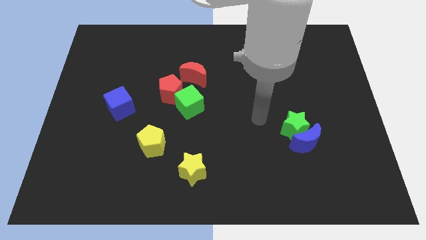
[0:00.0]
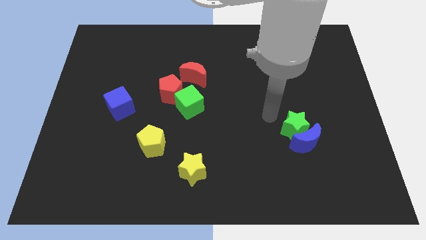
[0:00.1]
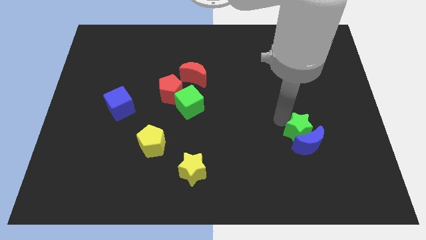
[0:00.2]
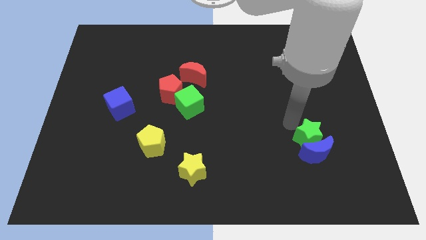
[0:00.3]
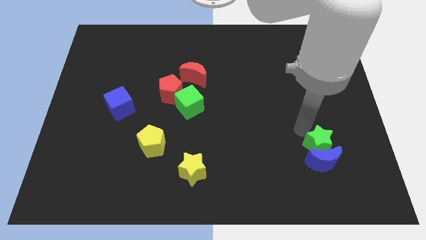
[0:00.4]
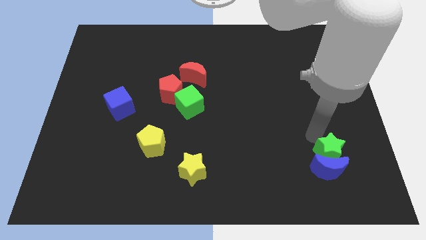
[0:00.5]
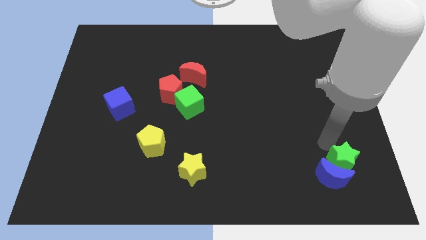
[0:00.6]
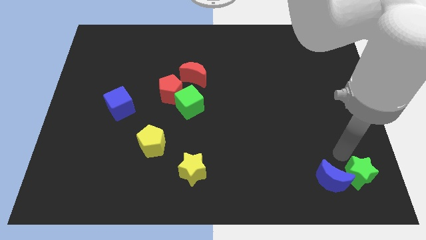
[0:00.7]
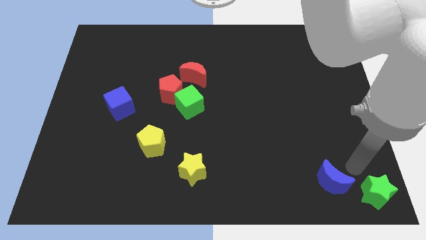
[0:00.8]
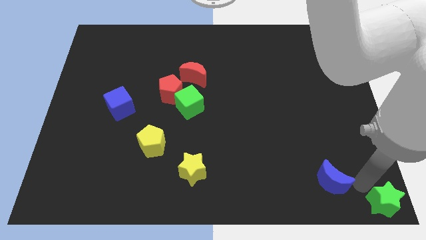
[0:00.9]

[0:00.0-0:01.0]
separate the blue moon from the green star

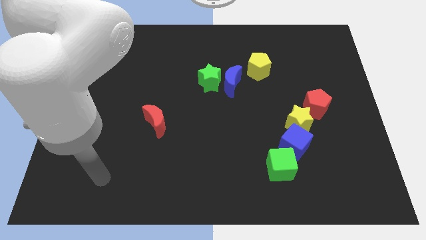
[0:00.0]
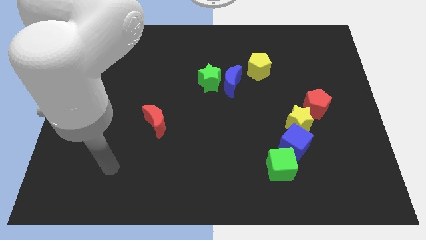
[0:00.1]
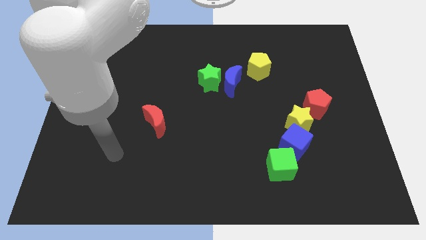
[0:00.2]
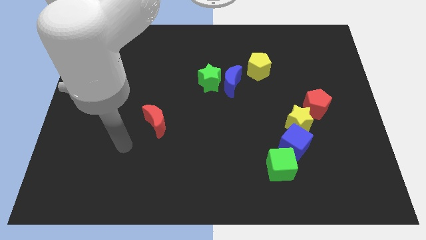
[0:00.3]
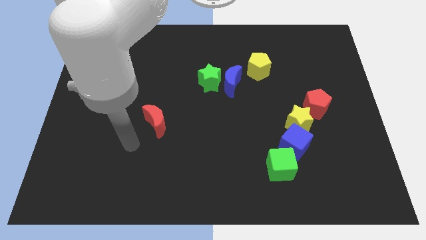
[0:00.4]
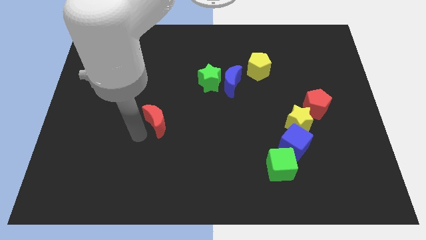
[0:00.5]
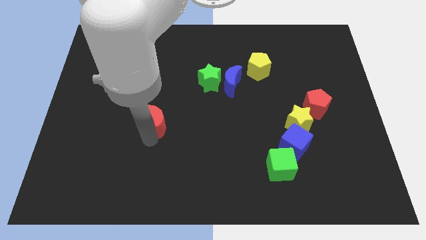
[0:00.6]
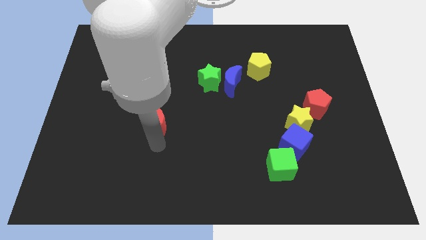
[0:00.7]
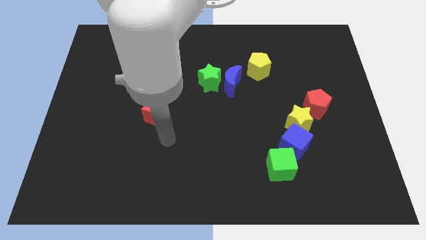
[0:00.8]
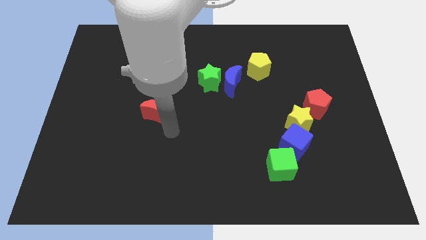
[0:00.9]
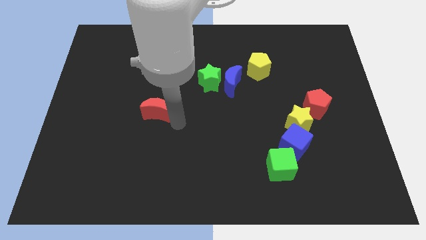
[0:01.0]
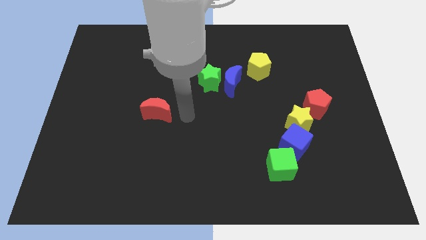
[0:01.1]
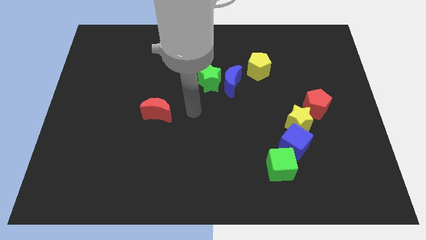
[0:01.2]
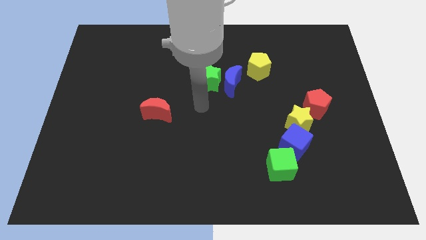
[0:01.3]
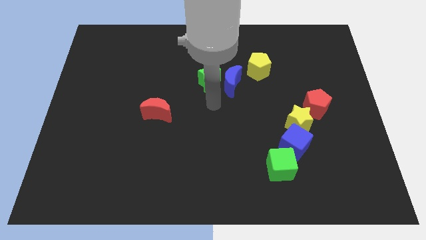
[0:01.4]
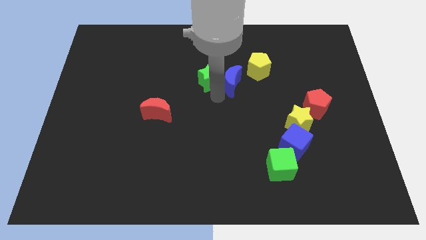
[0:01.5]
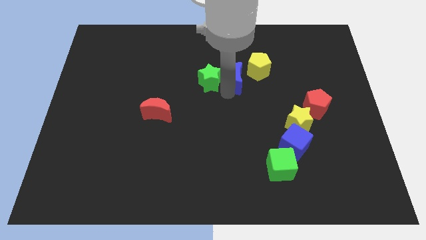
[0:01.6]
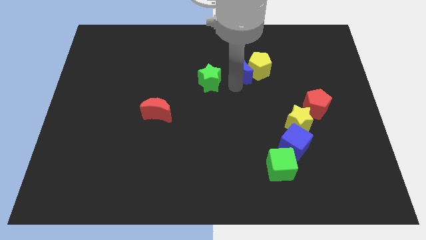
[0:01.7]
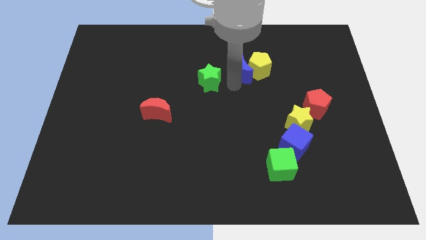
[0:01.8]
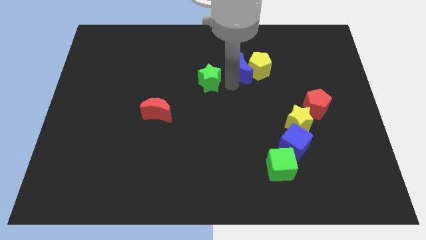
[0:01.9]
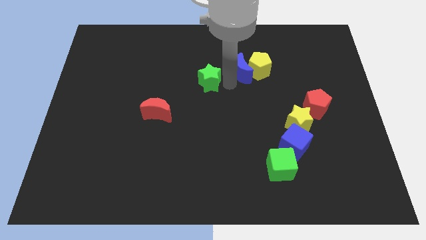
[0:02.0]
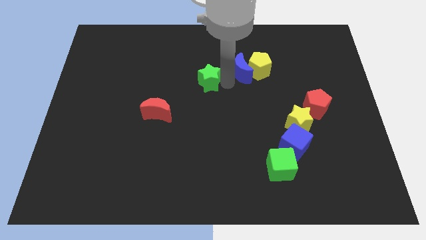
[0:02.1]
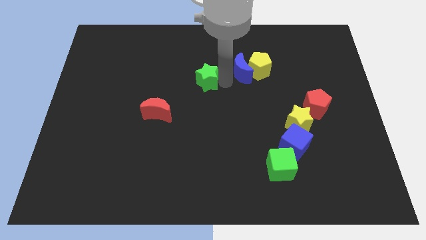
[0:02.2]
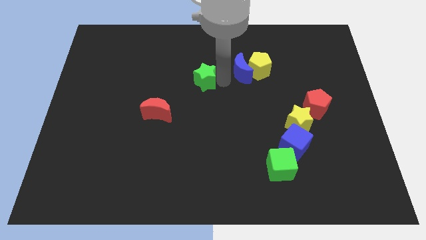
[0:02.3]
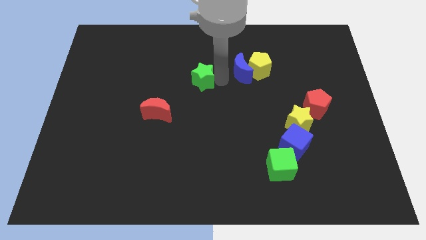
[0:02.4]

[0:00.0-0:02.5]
move the green star away from the blue moon

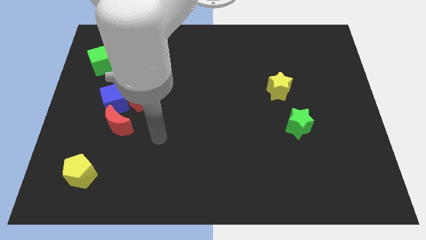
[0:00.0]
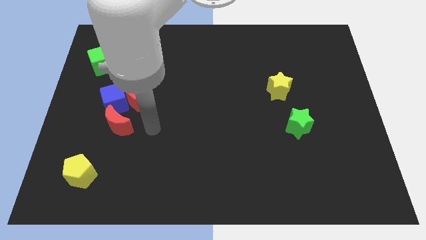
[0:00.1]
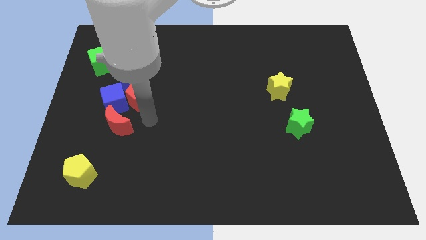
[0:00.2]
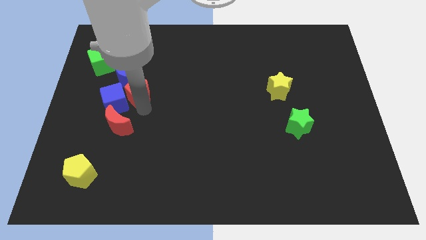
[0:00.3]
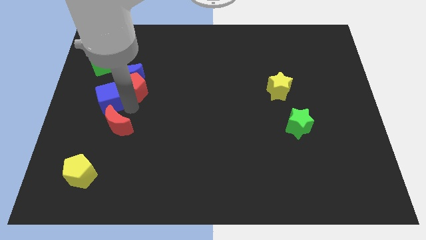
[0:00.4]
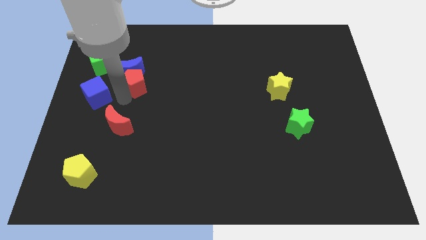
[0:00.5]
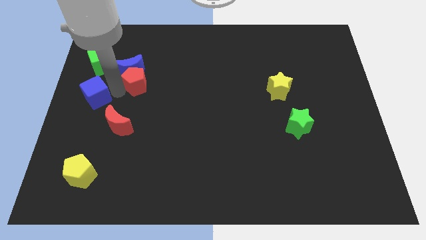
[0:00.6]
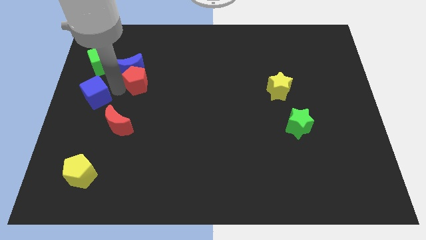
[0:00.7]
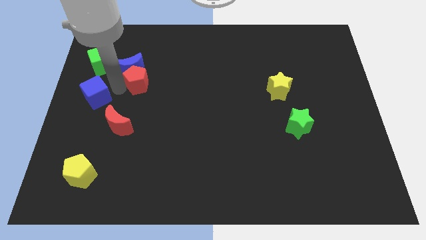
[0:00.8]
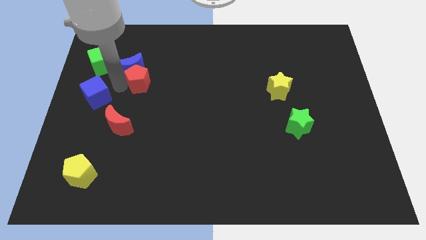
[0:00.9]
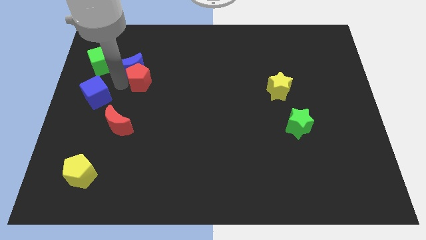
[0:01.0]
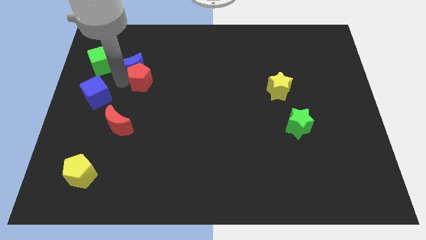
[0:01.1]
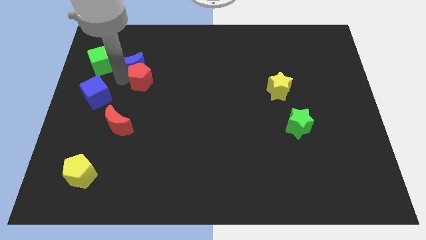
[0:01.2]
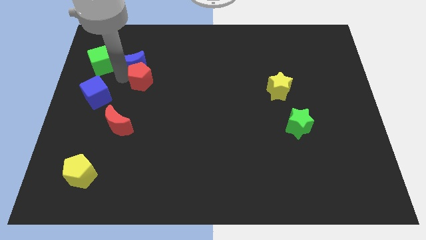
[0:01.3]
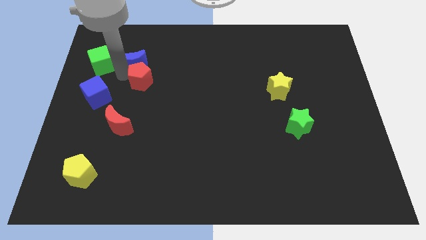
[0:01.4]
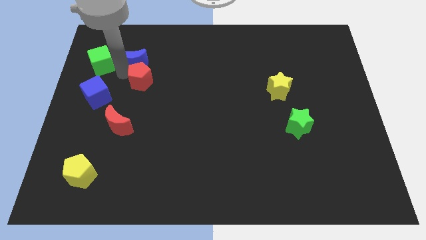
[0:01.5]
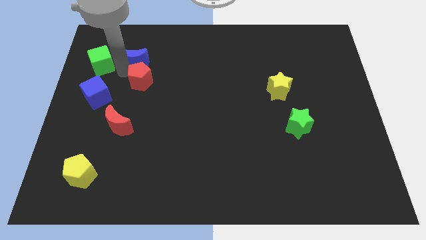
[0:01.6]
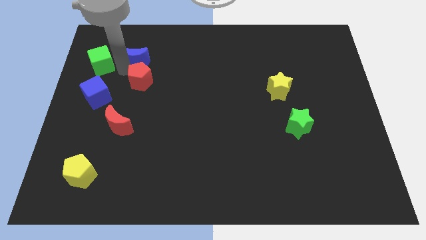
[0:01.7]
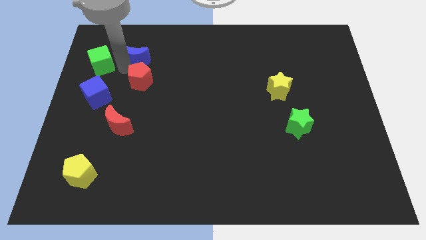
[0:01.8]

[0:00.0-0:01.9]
move the blue moon away from the red pentagon and blue cube

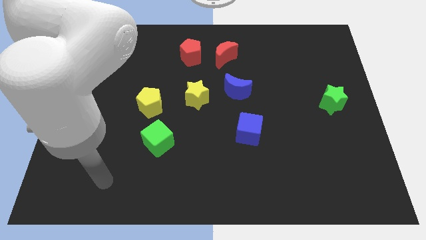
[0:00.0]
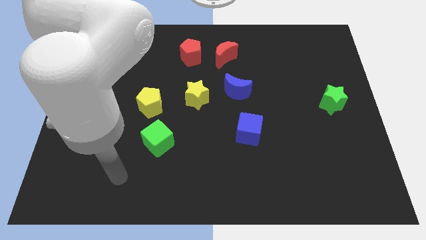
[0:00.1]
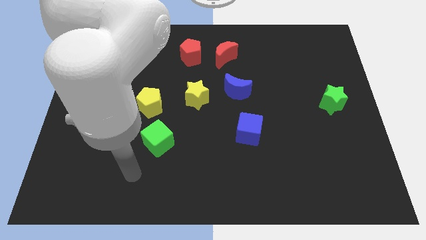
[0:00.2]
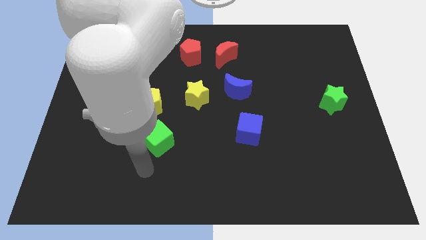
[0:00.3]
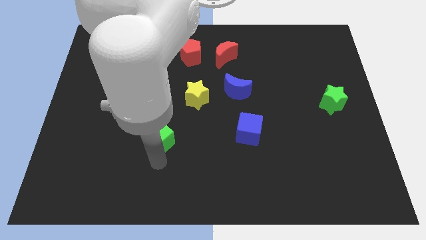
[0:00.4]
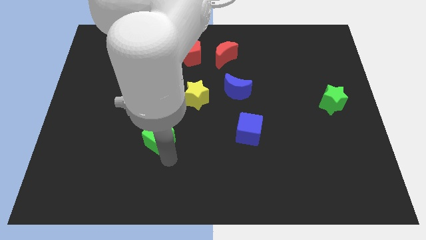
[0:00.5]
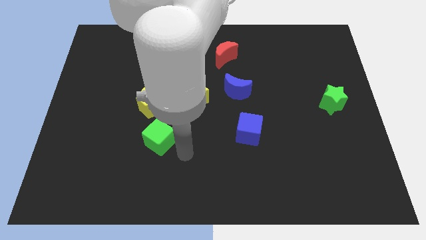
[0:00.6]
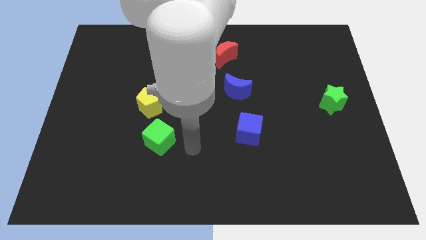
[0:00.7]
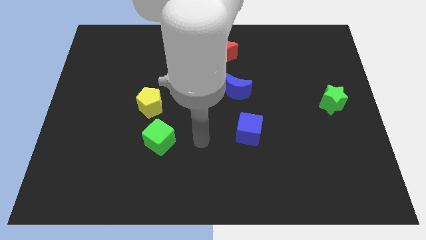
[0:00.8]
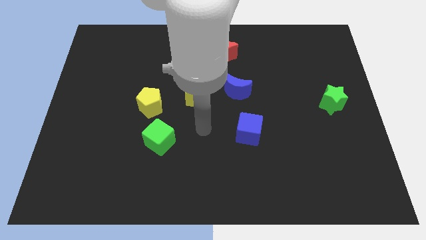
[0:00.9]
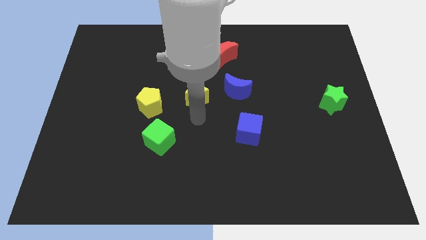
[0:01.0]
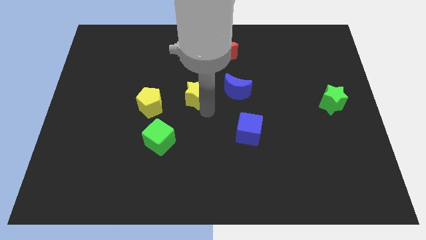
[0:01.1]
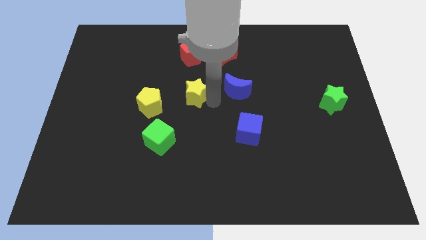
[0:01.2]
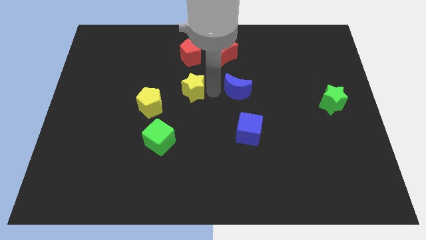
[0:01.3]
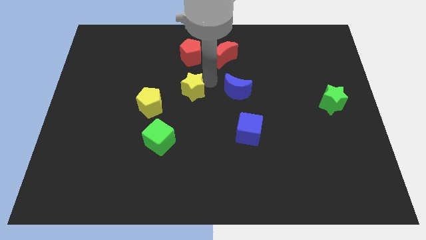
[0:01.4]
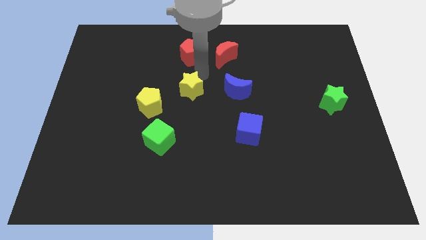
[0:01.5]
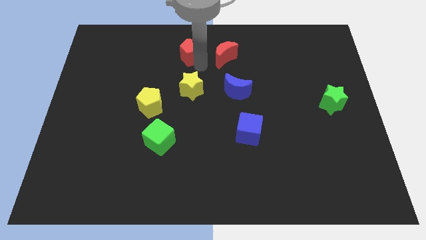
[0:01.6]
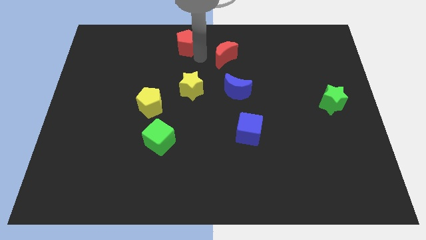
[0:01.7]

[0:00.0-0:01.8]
pull the red moon apart from the red pentagon

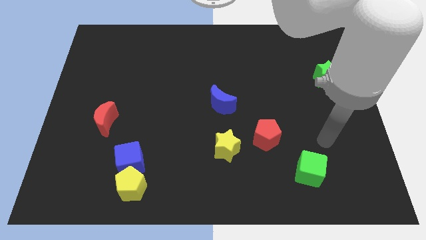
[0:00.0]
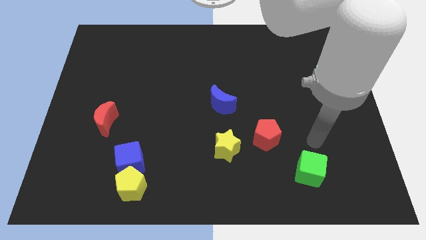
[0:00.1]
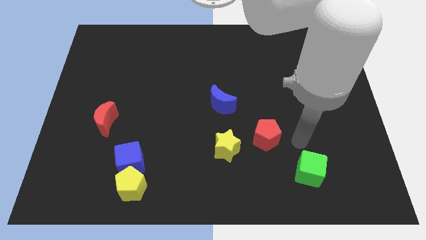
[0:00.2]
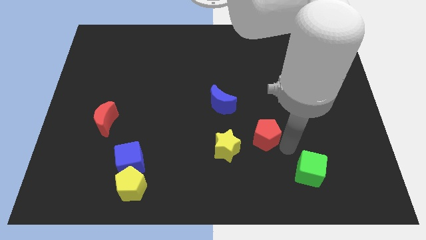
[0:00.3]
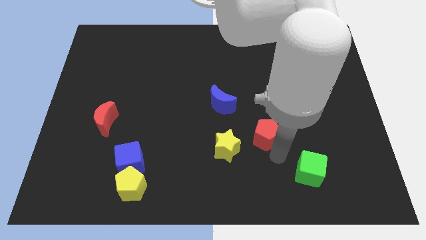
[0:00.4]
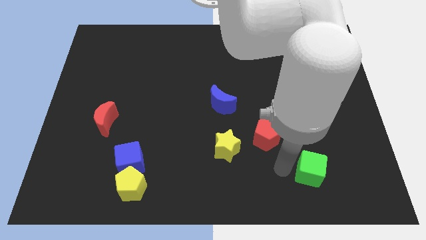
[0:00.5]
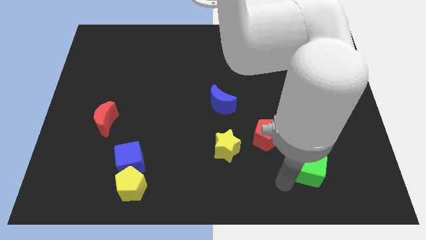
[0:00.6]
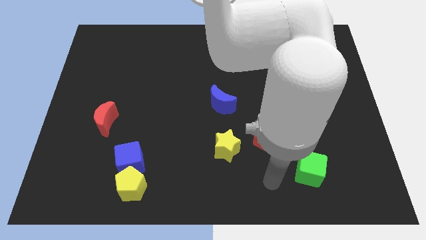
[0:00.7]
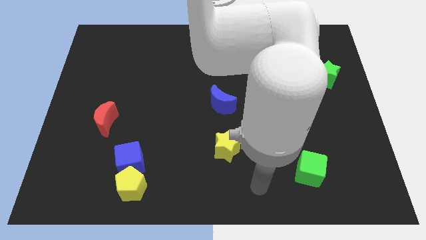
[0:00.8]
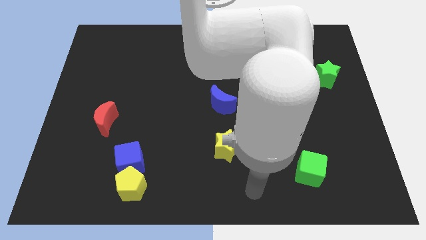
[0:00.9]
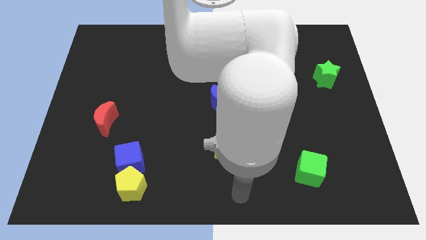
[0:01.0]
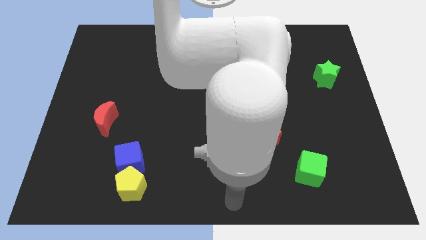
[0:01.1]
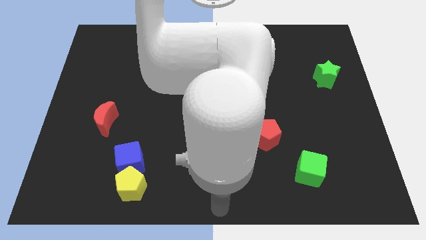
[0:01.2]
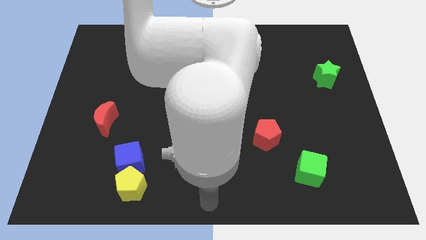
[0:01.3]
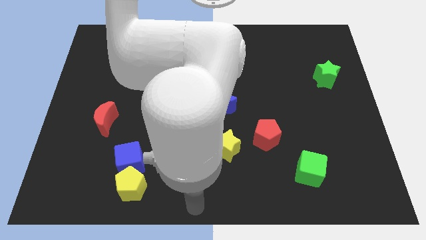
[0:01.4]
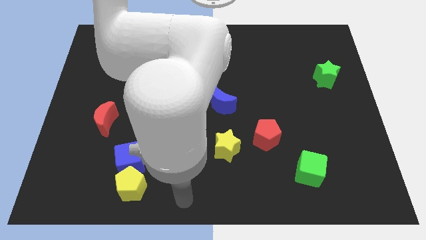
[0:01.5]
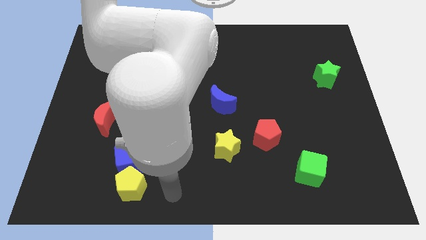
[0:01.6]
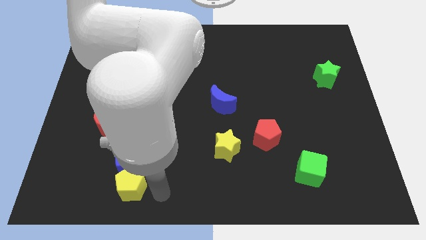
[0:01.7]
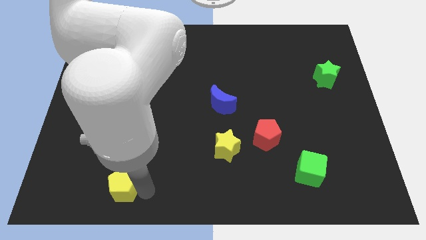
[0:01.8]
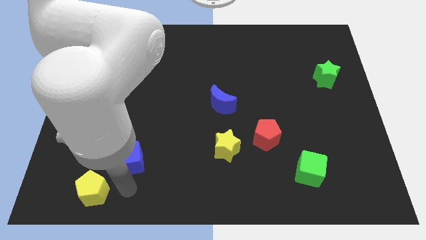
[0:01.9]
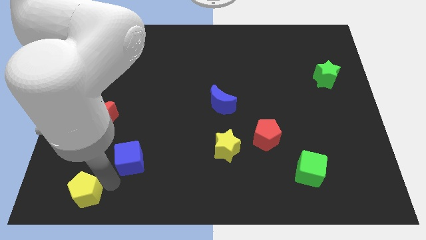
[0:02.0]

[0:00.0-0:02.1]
separate the blue cube from the yellow pentagon
